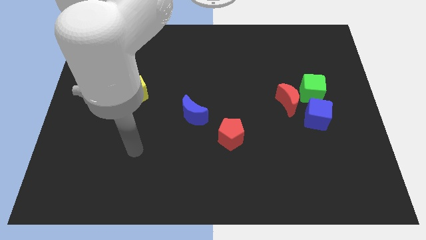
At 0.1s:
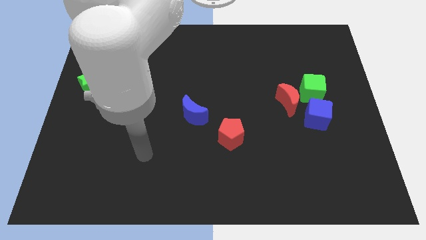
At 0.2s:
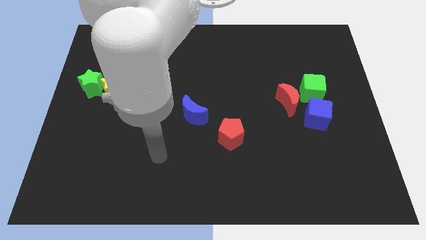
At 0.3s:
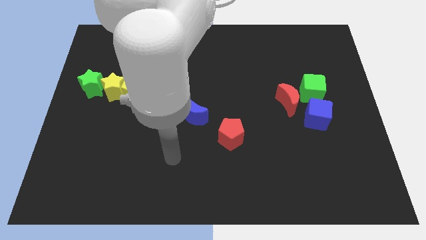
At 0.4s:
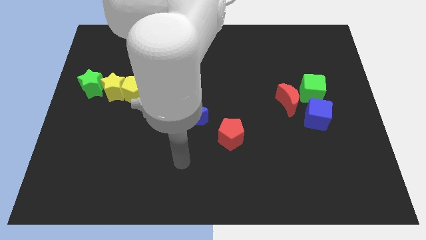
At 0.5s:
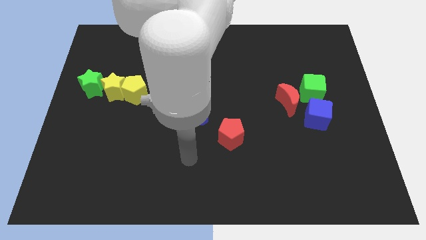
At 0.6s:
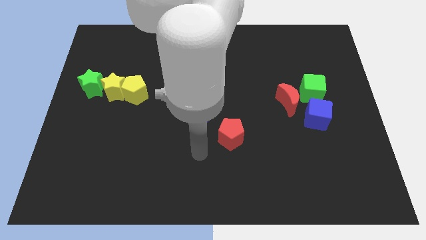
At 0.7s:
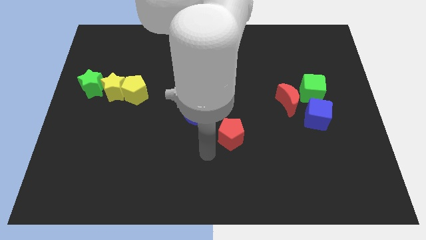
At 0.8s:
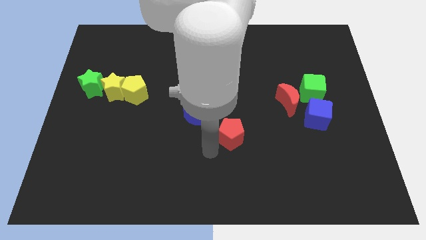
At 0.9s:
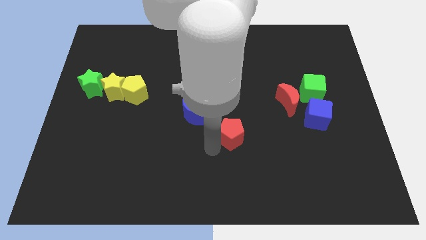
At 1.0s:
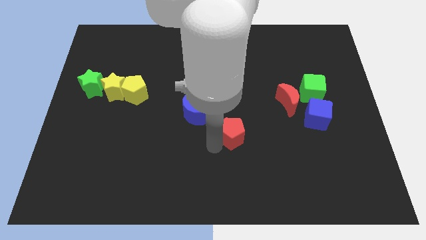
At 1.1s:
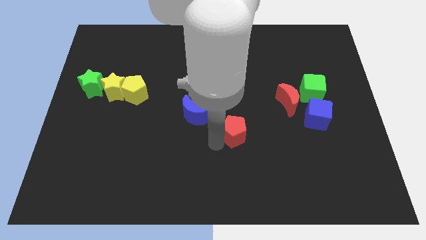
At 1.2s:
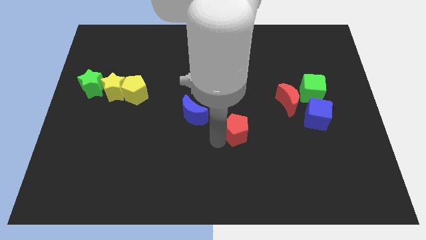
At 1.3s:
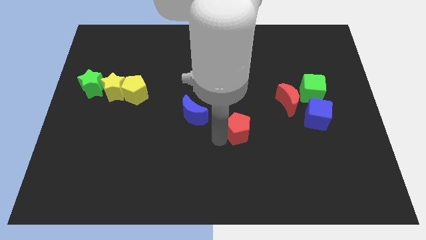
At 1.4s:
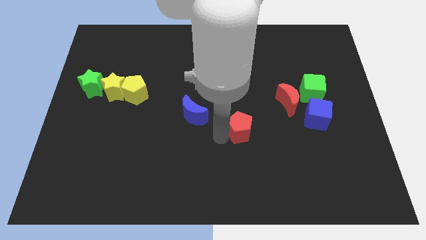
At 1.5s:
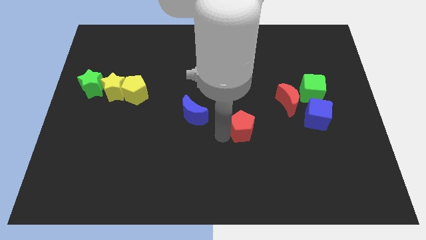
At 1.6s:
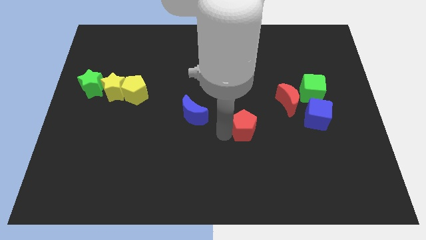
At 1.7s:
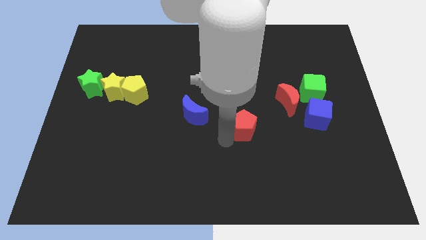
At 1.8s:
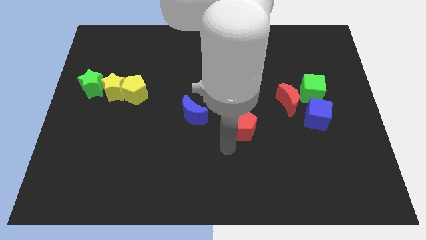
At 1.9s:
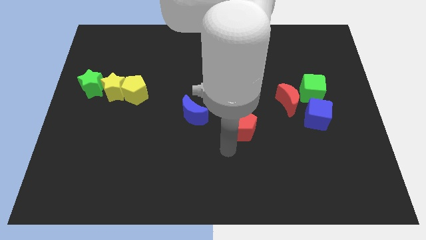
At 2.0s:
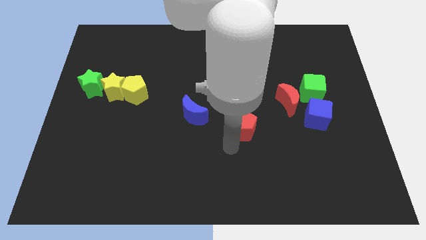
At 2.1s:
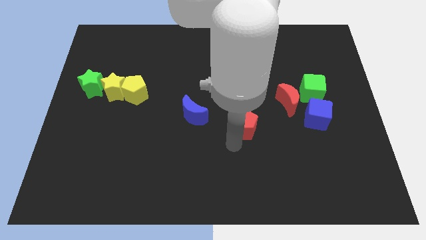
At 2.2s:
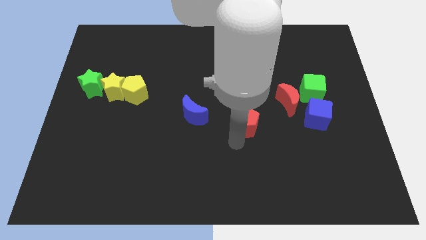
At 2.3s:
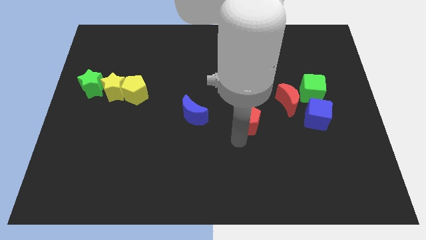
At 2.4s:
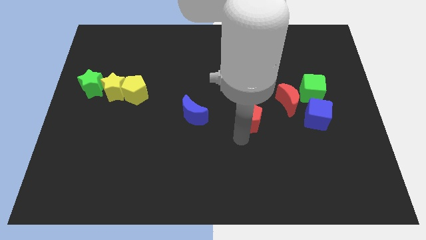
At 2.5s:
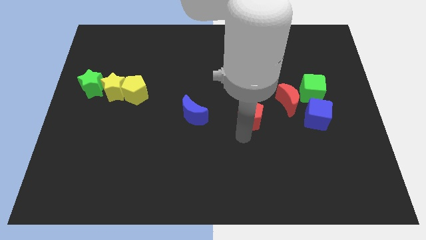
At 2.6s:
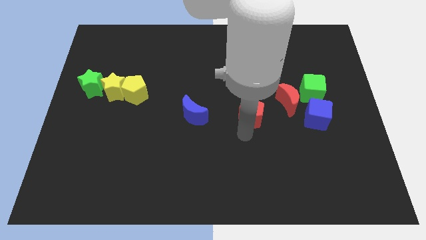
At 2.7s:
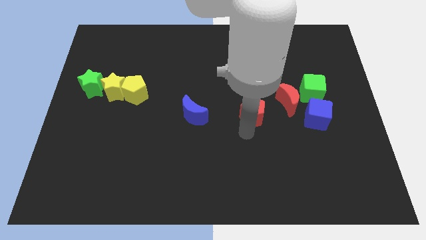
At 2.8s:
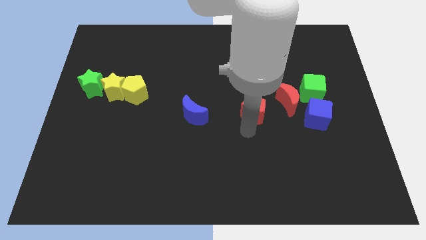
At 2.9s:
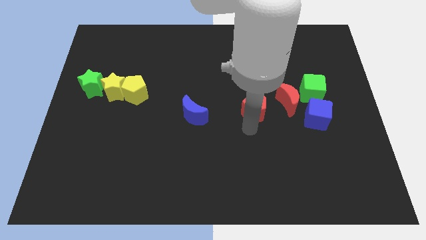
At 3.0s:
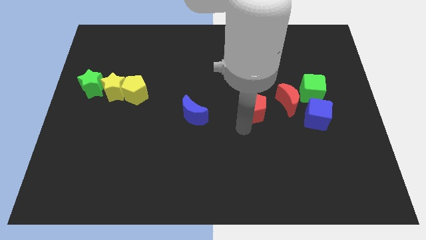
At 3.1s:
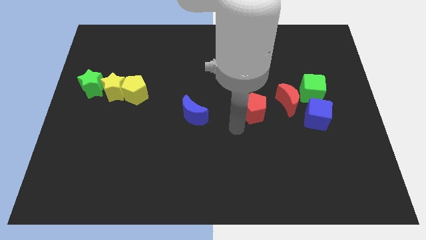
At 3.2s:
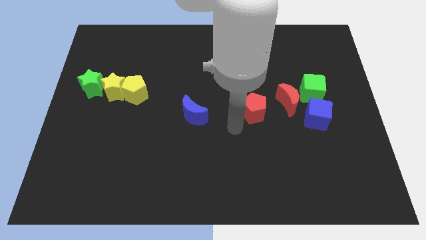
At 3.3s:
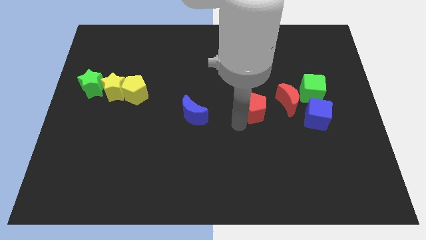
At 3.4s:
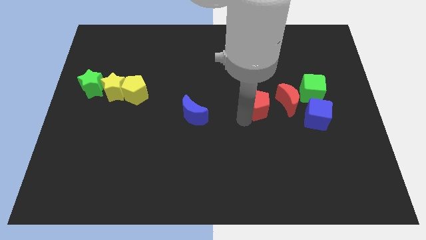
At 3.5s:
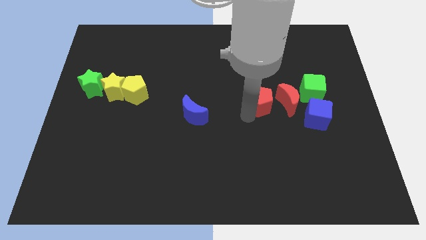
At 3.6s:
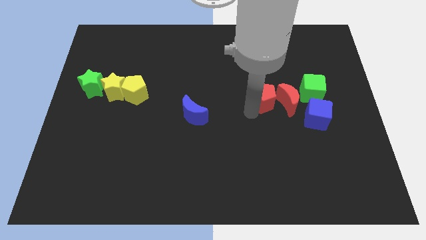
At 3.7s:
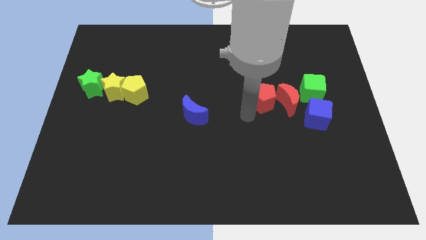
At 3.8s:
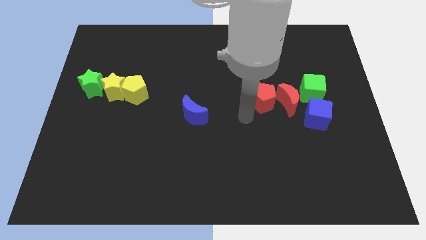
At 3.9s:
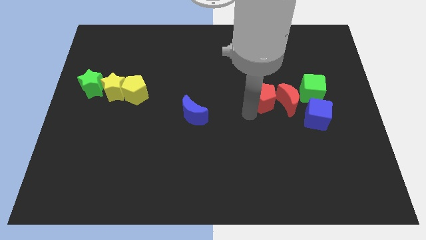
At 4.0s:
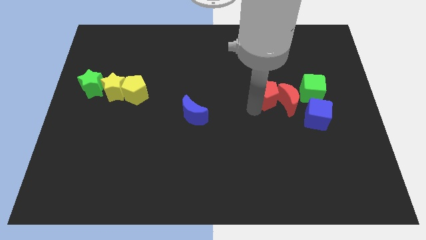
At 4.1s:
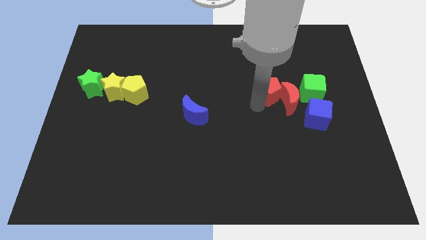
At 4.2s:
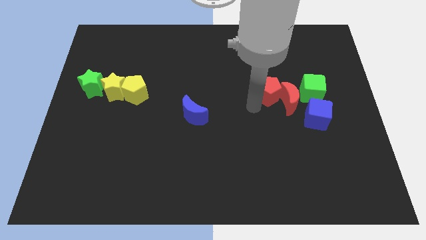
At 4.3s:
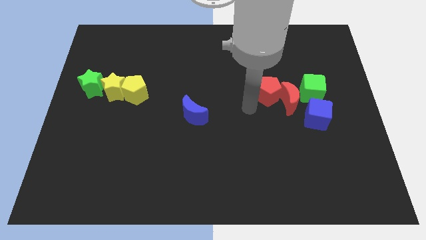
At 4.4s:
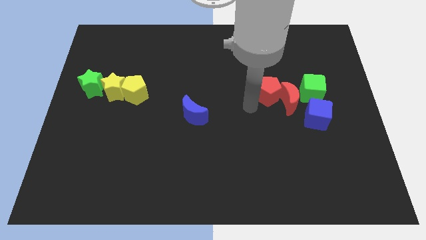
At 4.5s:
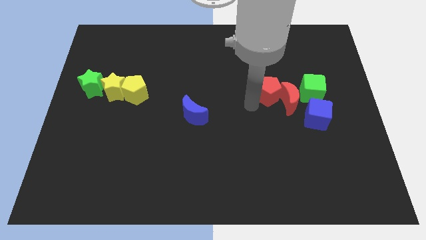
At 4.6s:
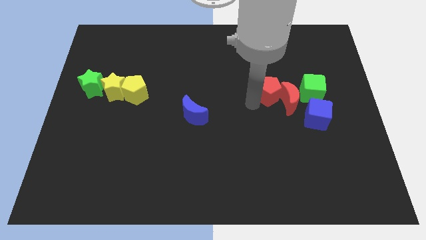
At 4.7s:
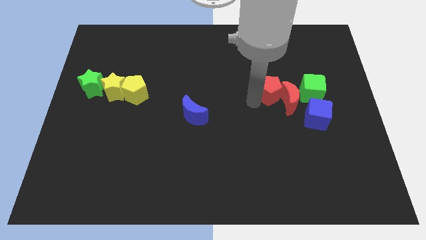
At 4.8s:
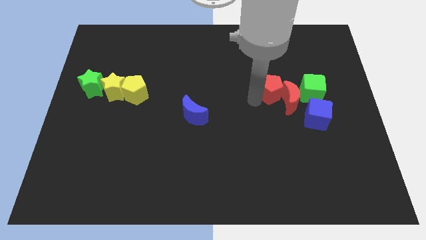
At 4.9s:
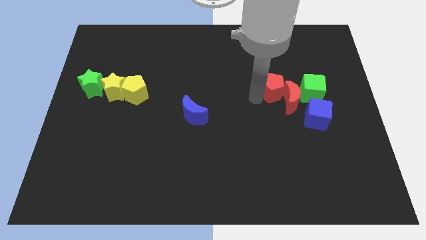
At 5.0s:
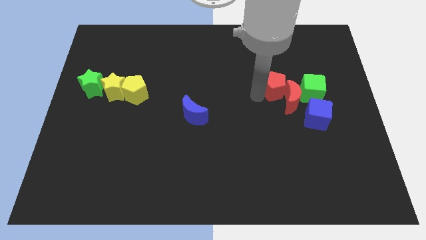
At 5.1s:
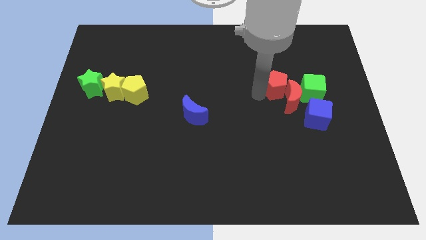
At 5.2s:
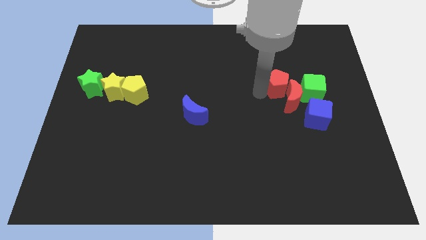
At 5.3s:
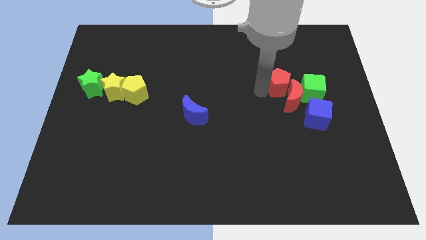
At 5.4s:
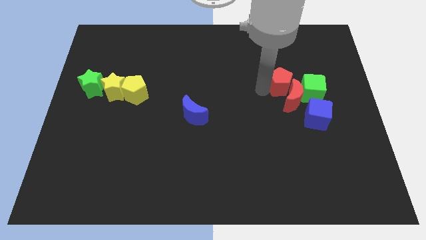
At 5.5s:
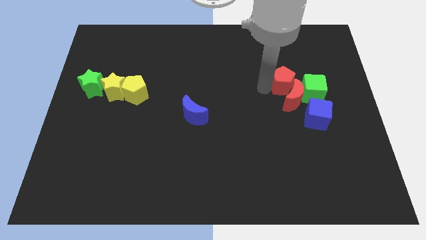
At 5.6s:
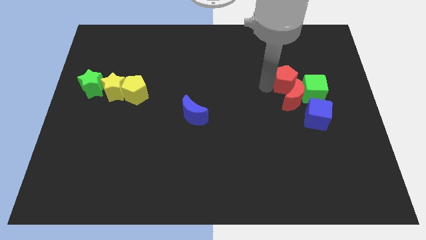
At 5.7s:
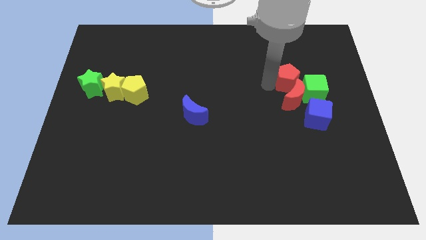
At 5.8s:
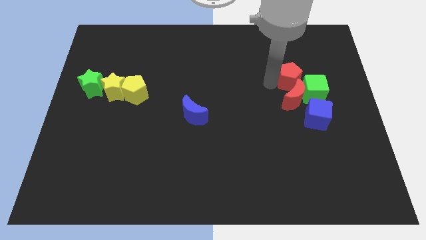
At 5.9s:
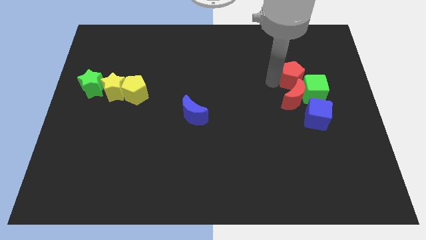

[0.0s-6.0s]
put the red pentagon to the top of the blue cube

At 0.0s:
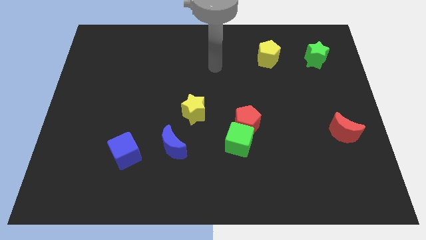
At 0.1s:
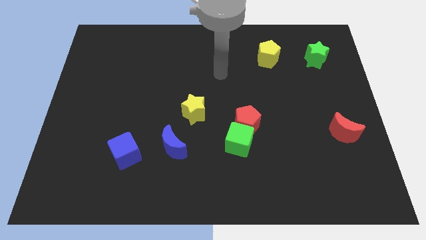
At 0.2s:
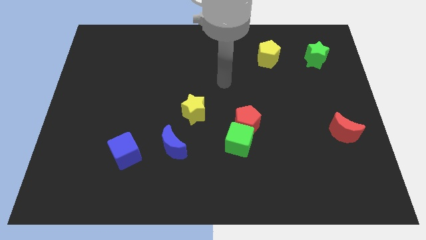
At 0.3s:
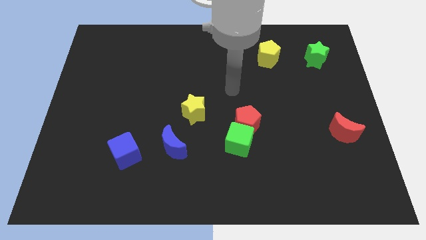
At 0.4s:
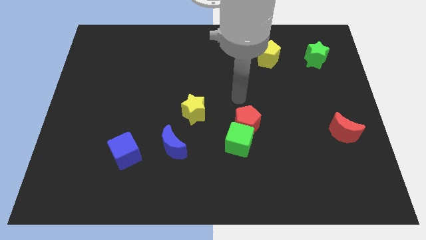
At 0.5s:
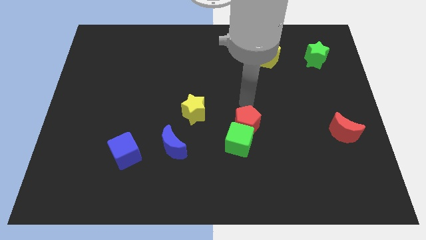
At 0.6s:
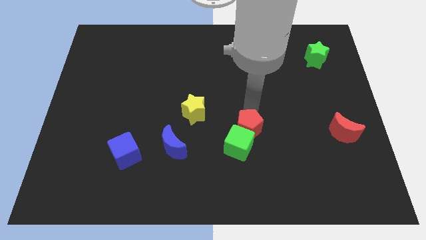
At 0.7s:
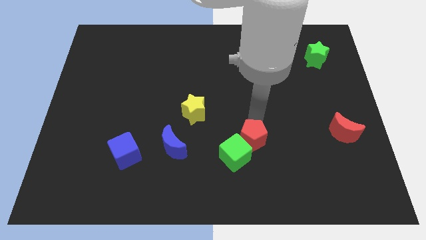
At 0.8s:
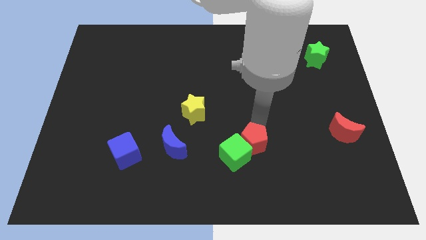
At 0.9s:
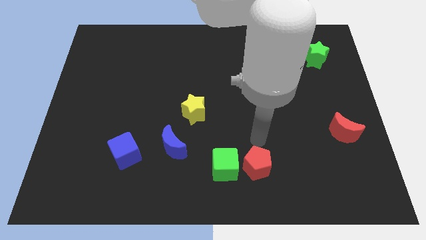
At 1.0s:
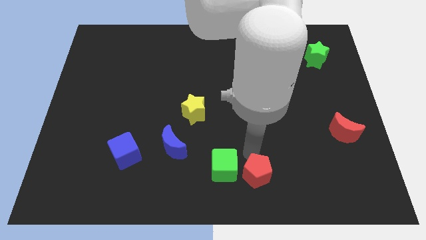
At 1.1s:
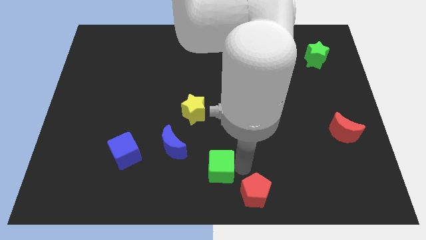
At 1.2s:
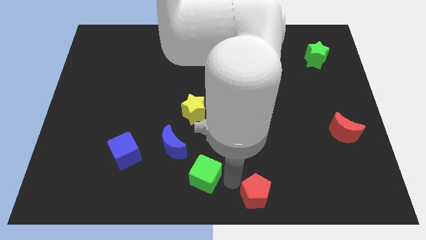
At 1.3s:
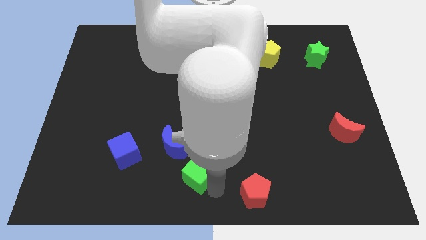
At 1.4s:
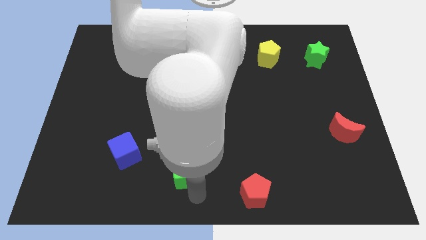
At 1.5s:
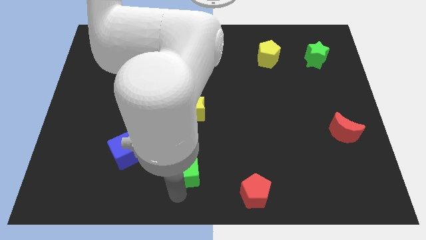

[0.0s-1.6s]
push the green cube to the right of the blue cube

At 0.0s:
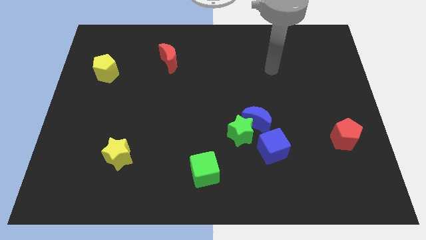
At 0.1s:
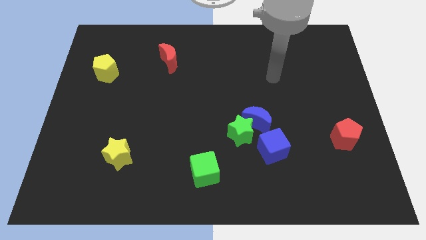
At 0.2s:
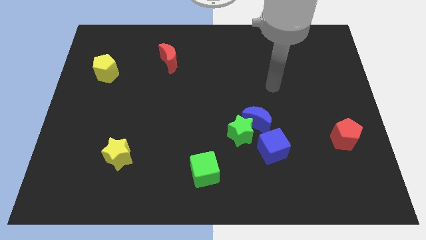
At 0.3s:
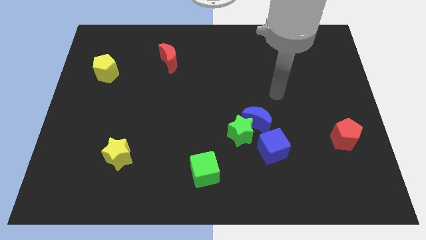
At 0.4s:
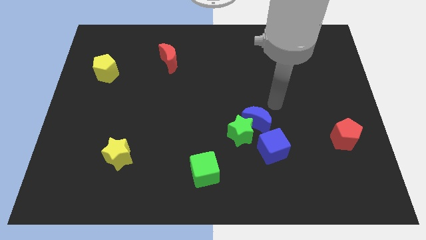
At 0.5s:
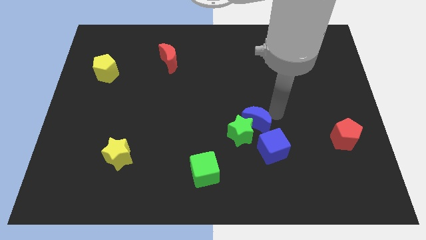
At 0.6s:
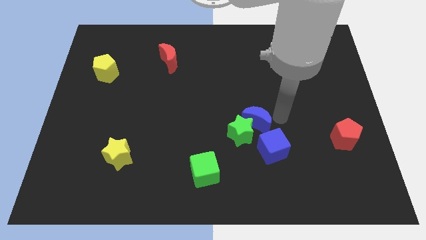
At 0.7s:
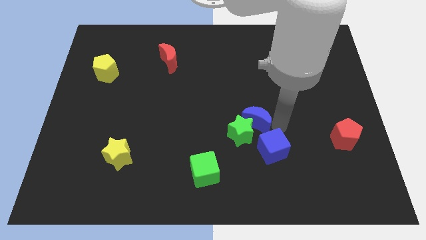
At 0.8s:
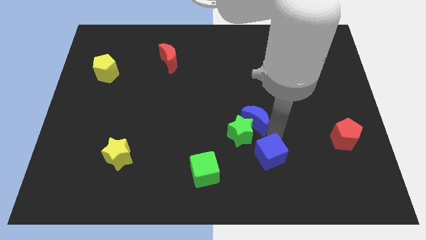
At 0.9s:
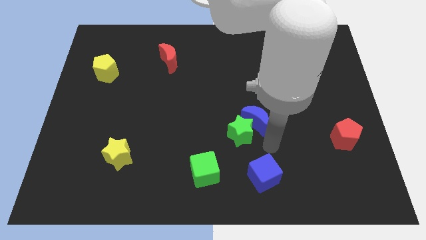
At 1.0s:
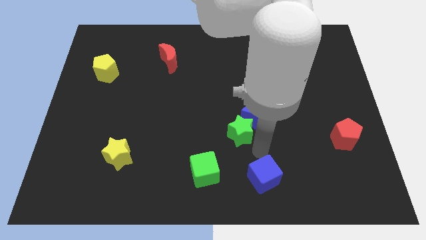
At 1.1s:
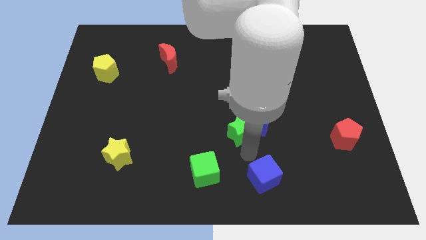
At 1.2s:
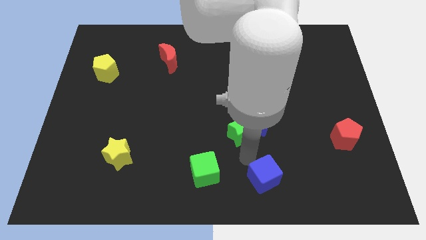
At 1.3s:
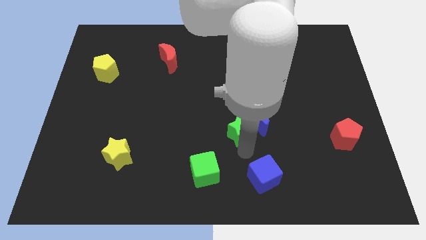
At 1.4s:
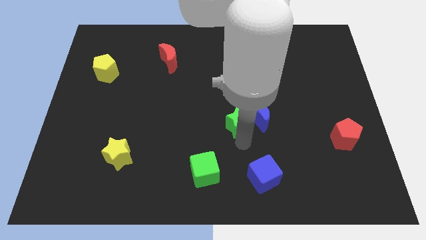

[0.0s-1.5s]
move the green star diagonally up and to the left of the blue moon
